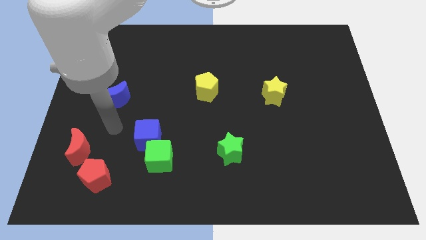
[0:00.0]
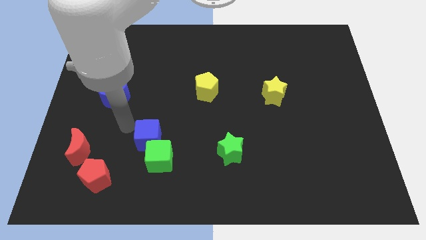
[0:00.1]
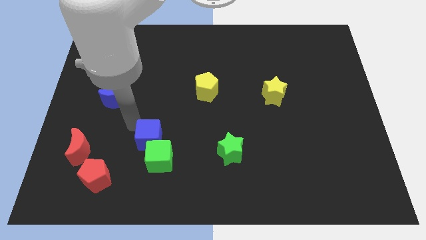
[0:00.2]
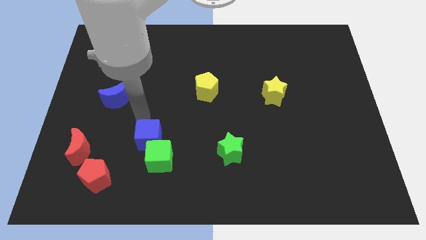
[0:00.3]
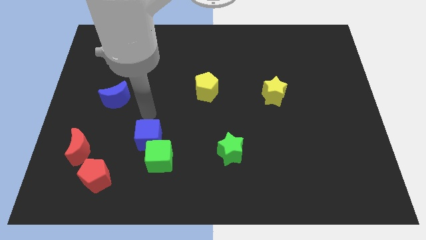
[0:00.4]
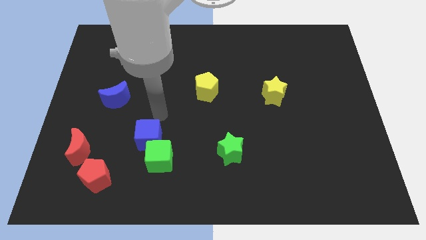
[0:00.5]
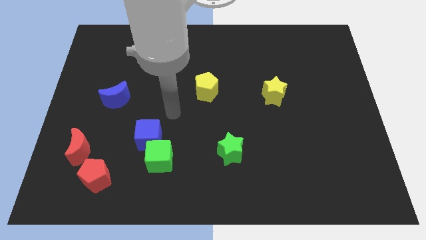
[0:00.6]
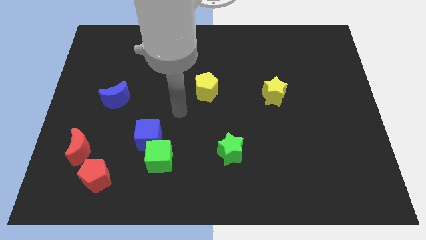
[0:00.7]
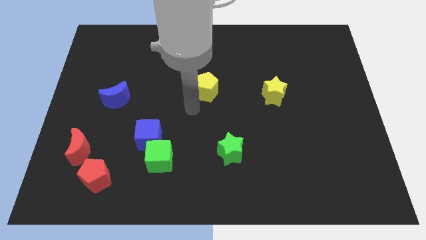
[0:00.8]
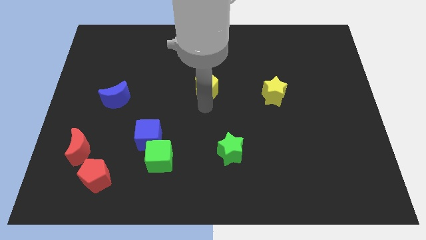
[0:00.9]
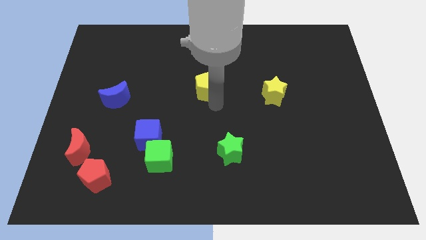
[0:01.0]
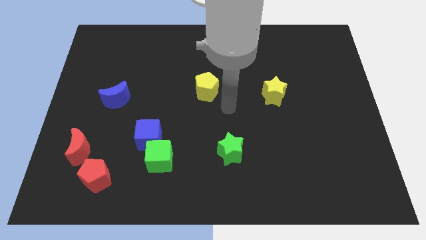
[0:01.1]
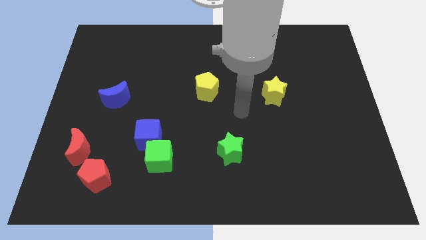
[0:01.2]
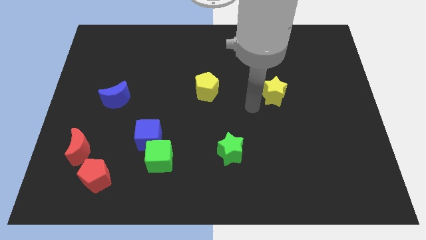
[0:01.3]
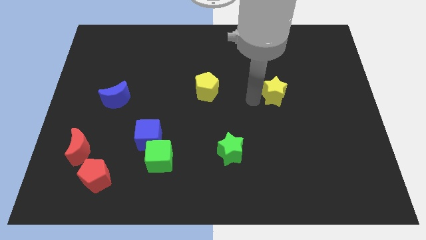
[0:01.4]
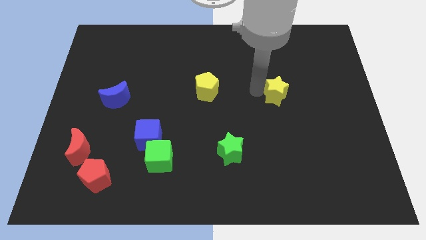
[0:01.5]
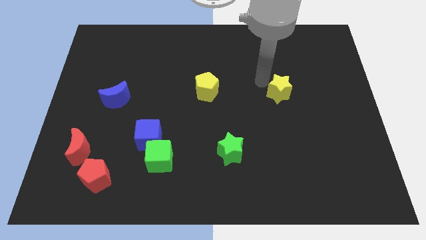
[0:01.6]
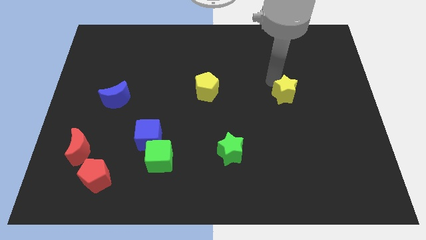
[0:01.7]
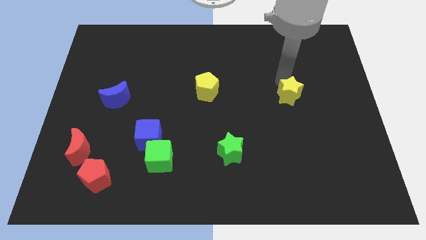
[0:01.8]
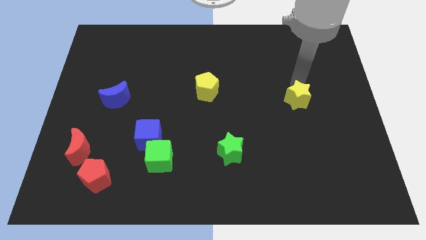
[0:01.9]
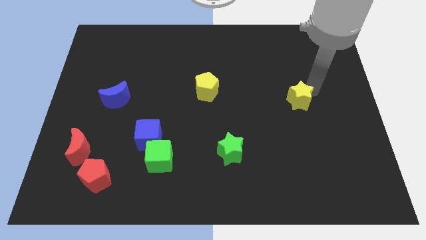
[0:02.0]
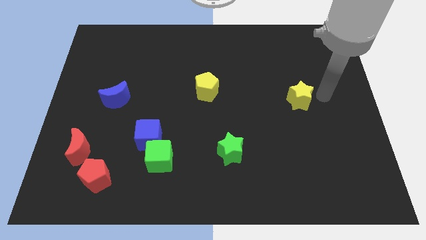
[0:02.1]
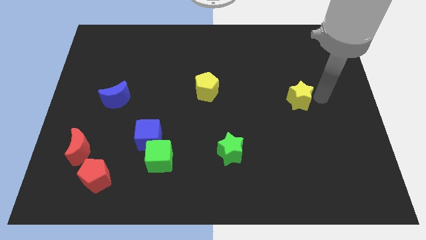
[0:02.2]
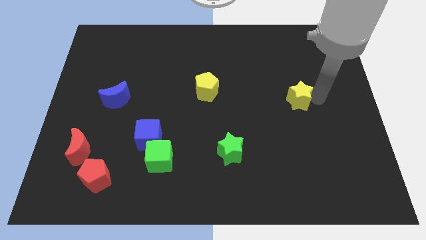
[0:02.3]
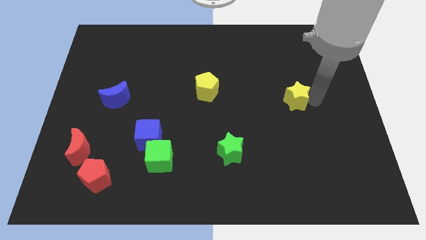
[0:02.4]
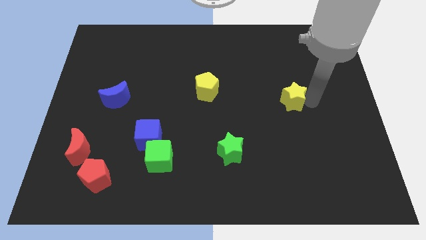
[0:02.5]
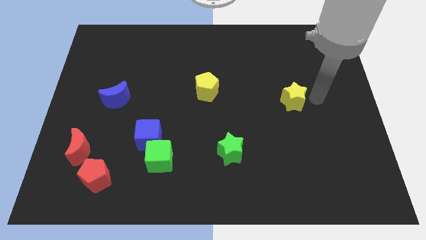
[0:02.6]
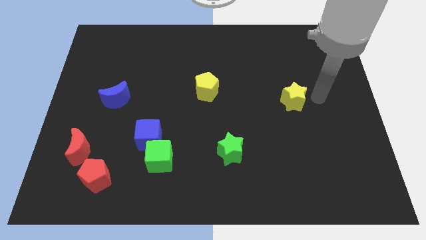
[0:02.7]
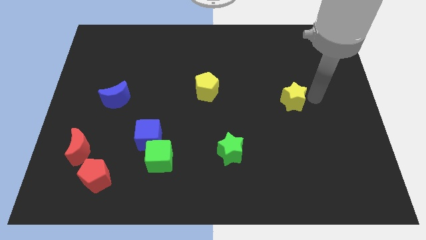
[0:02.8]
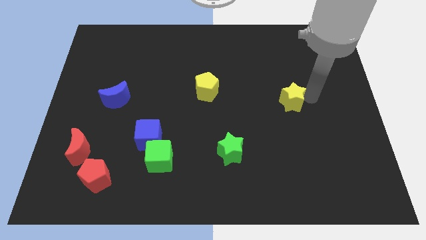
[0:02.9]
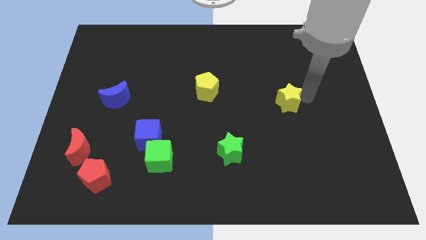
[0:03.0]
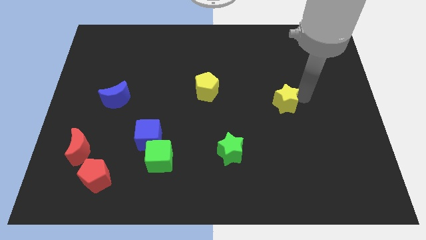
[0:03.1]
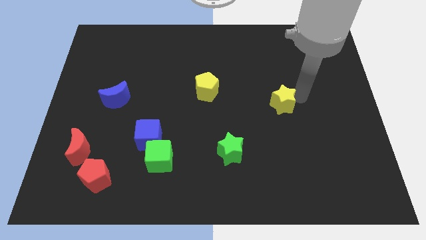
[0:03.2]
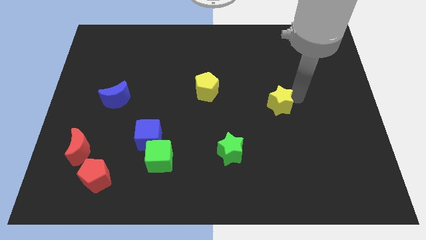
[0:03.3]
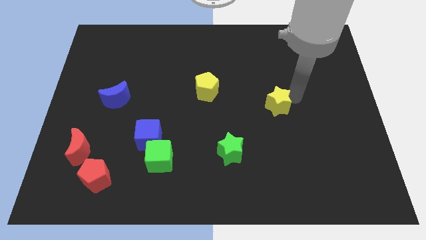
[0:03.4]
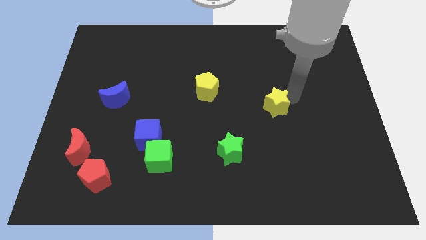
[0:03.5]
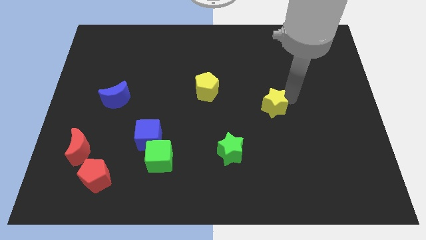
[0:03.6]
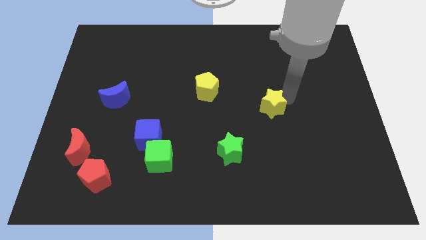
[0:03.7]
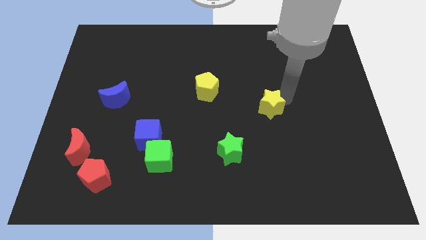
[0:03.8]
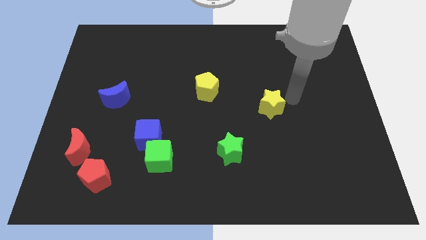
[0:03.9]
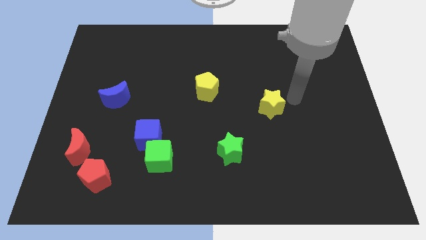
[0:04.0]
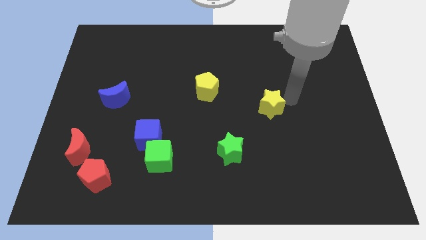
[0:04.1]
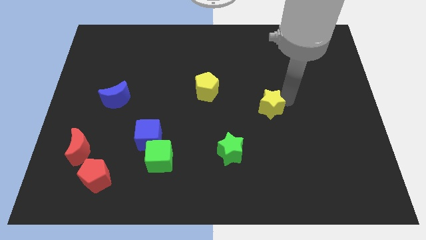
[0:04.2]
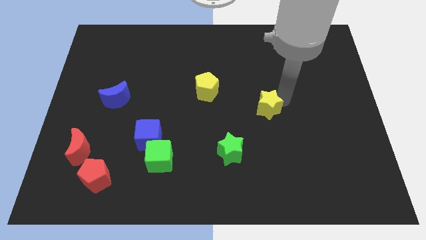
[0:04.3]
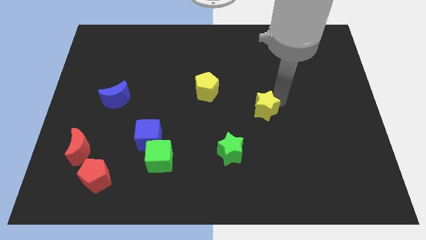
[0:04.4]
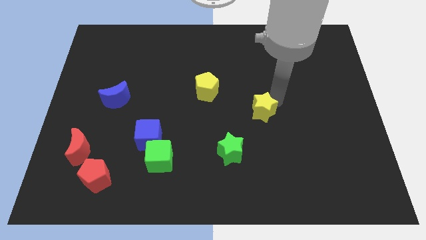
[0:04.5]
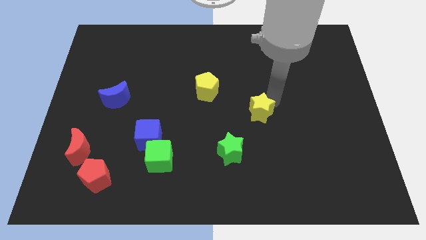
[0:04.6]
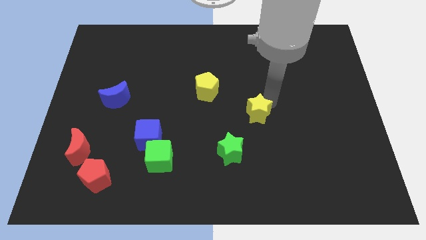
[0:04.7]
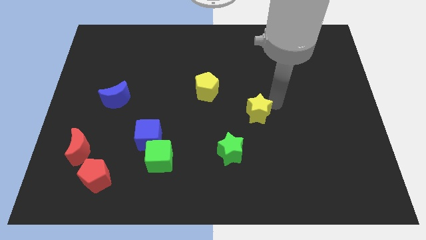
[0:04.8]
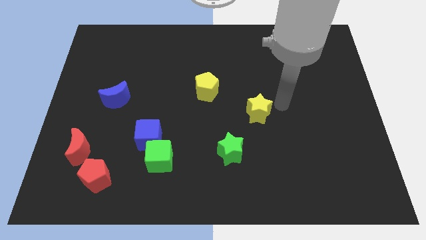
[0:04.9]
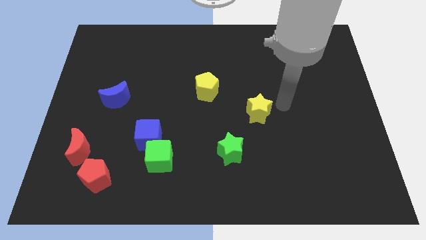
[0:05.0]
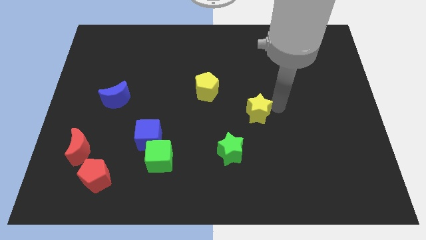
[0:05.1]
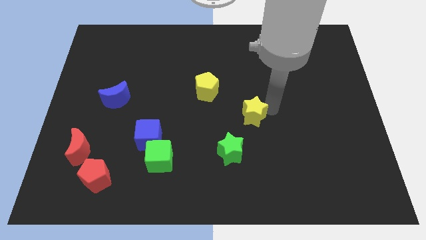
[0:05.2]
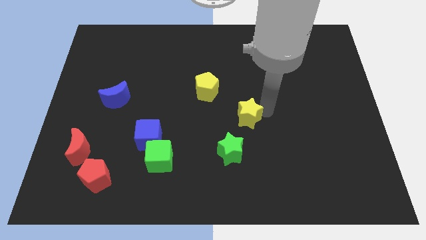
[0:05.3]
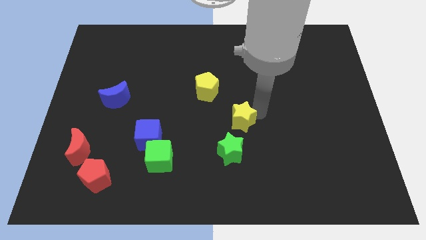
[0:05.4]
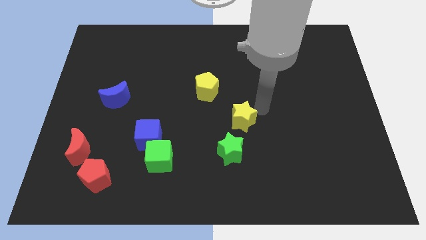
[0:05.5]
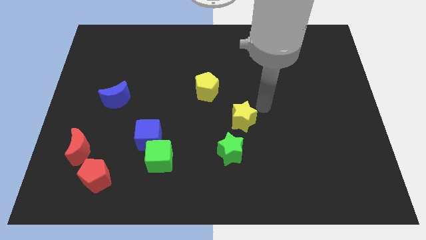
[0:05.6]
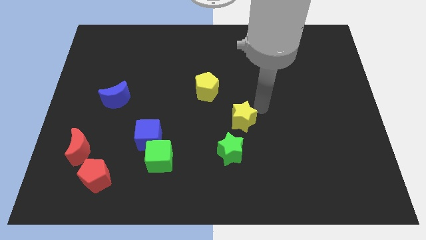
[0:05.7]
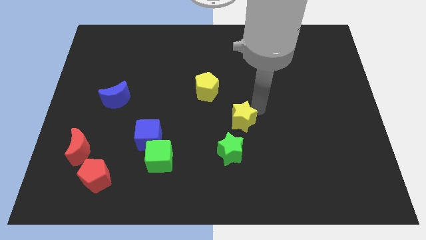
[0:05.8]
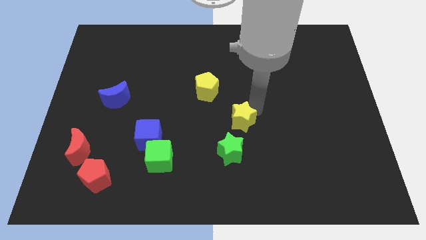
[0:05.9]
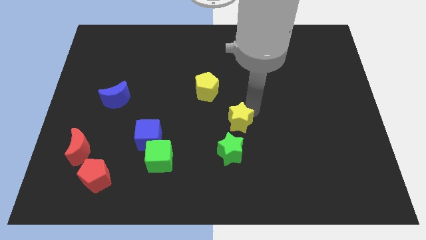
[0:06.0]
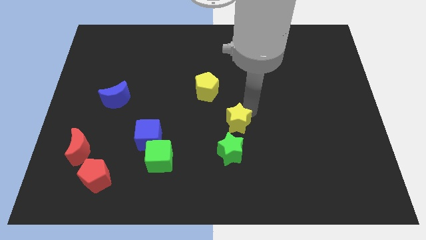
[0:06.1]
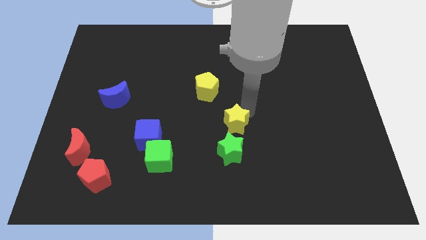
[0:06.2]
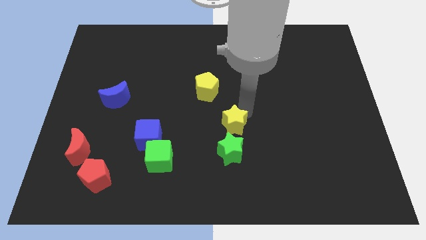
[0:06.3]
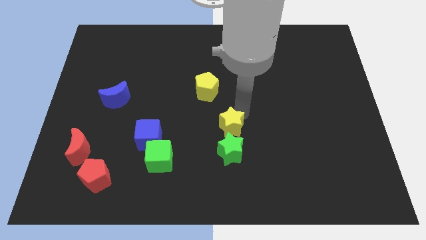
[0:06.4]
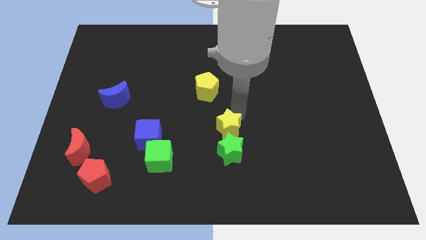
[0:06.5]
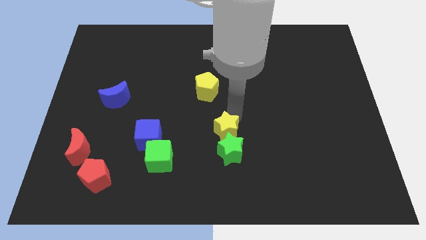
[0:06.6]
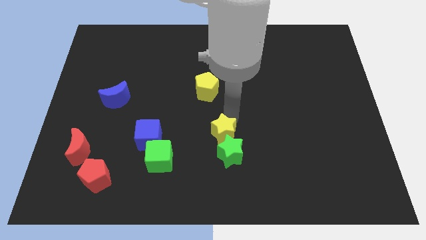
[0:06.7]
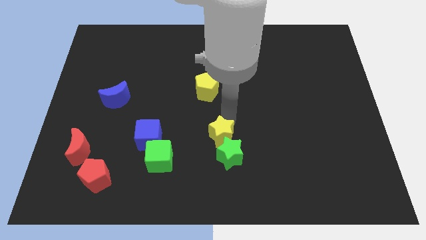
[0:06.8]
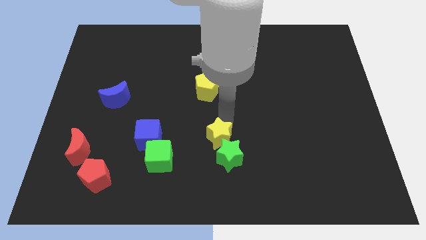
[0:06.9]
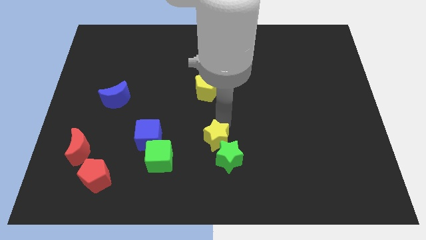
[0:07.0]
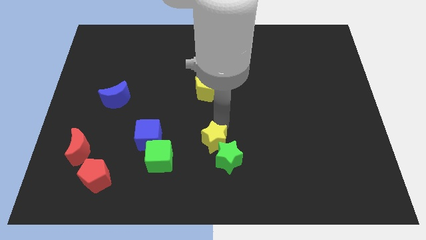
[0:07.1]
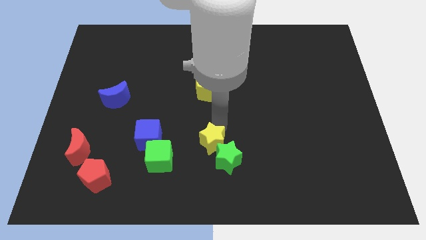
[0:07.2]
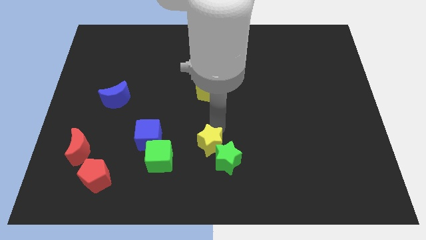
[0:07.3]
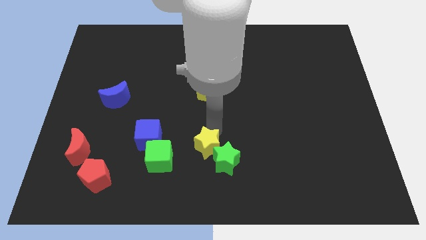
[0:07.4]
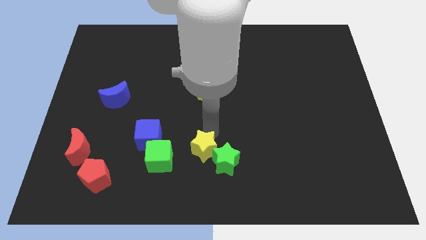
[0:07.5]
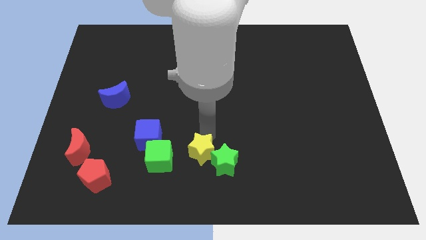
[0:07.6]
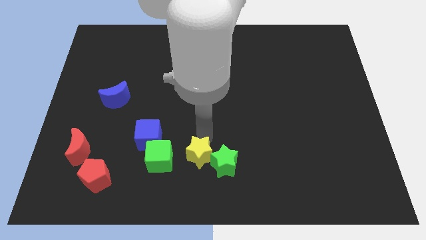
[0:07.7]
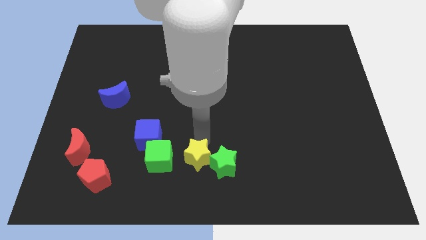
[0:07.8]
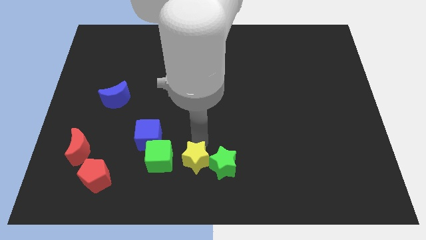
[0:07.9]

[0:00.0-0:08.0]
put the yellow star to the bottom left side of the green star

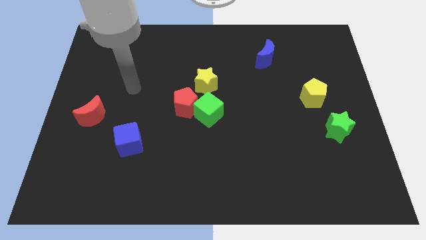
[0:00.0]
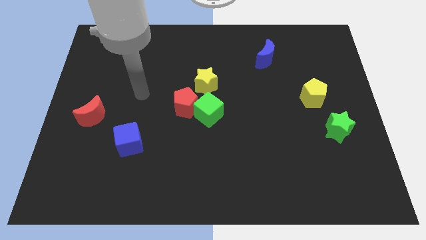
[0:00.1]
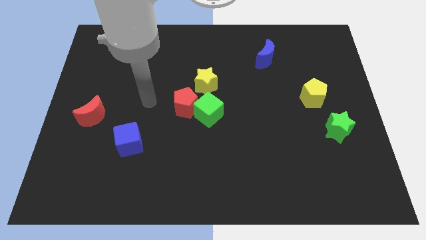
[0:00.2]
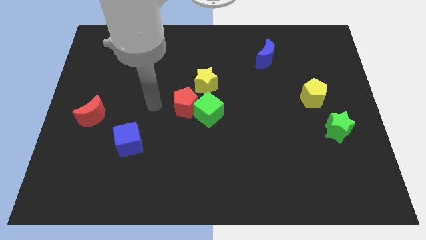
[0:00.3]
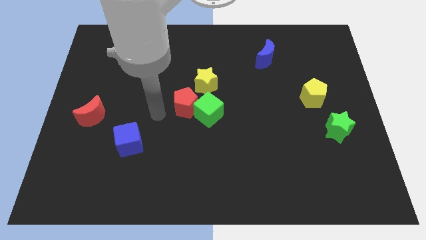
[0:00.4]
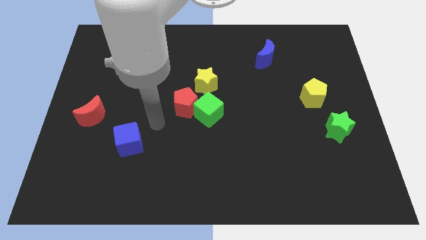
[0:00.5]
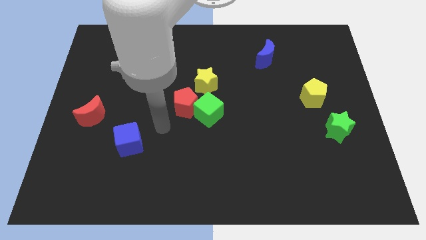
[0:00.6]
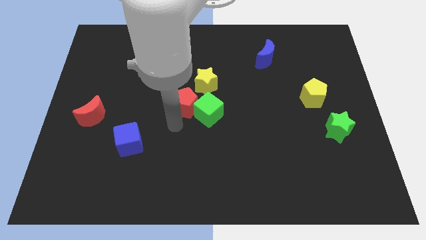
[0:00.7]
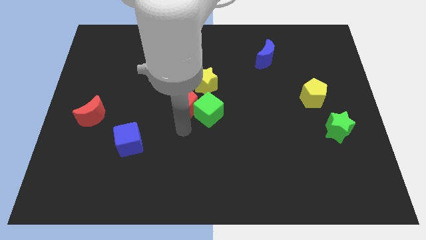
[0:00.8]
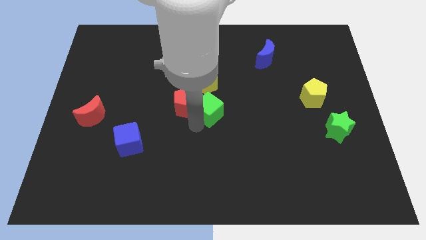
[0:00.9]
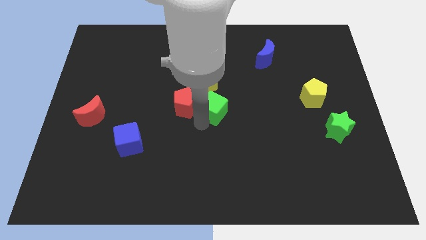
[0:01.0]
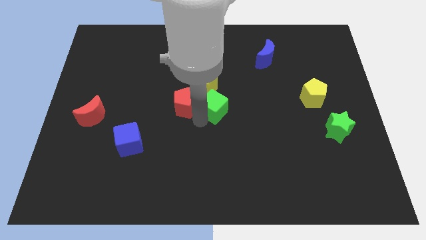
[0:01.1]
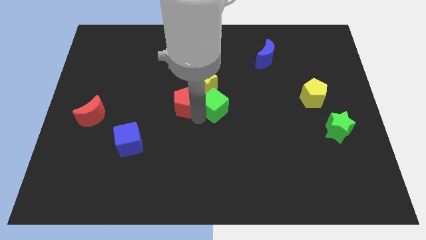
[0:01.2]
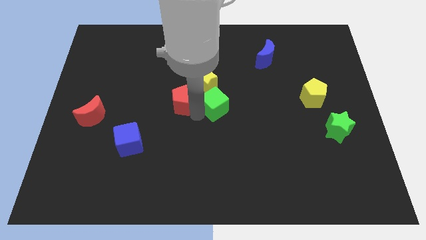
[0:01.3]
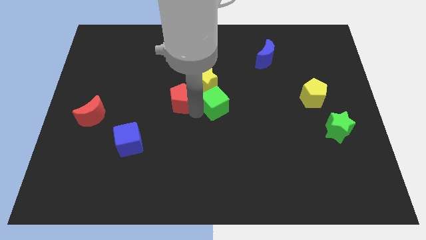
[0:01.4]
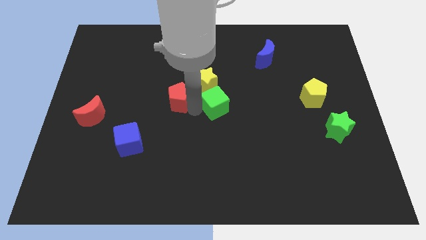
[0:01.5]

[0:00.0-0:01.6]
slide the red pentagon to the left side of the yellow star
